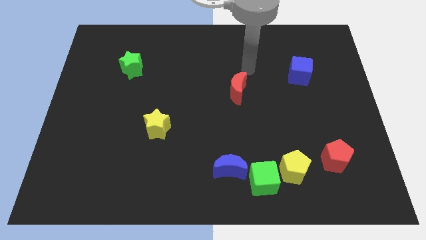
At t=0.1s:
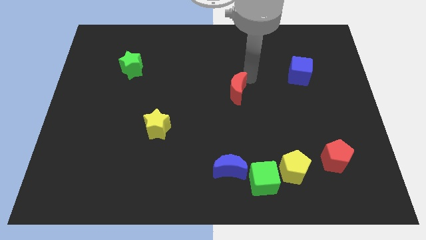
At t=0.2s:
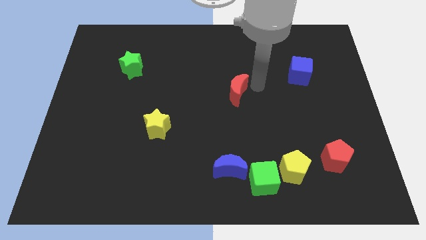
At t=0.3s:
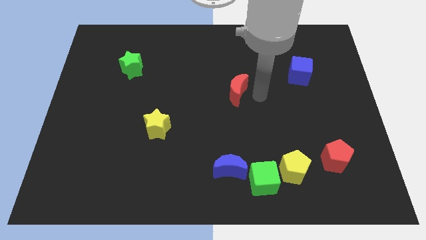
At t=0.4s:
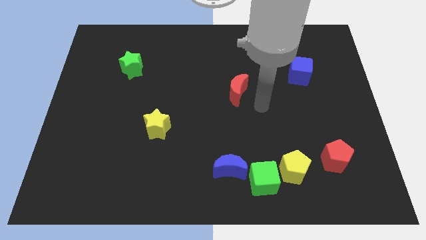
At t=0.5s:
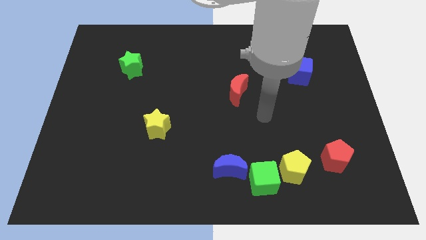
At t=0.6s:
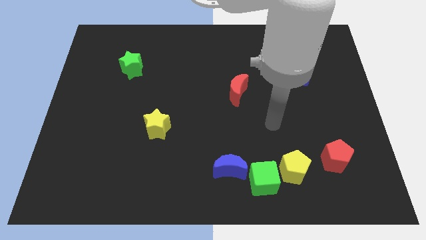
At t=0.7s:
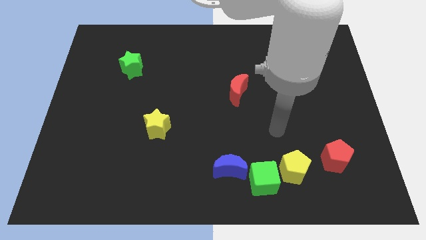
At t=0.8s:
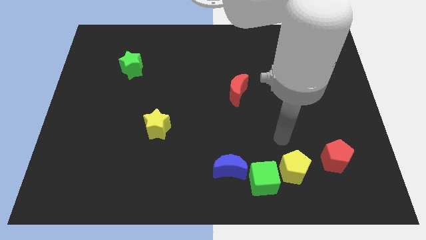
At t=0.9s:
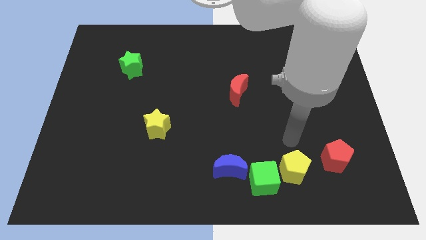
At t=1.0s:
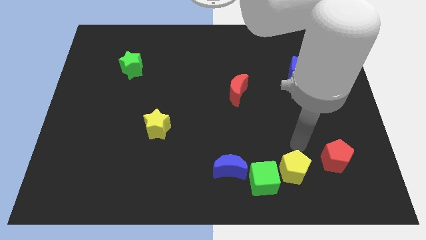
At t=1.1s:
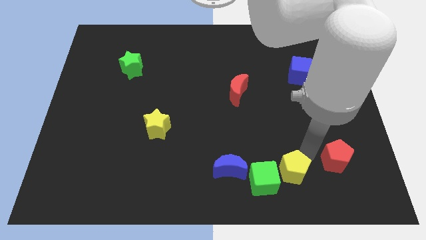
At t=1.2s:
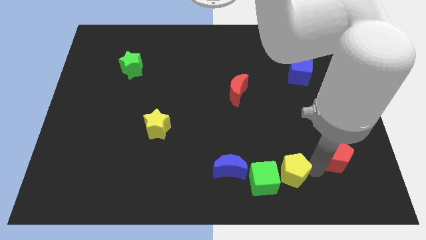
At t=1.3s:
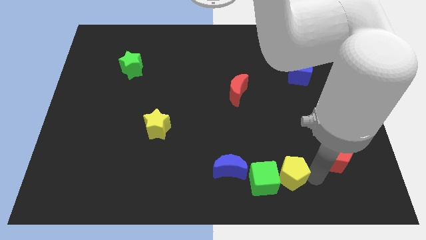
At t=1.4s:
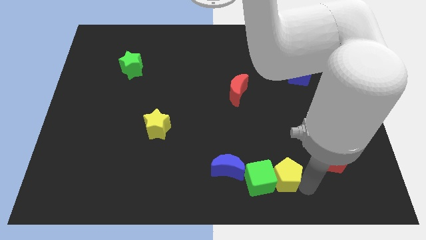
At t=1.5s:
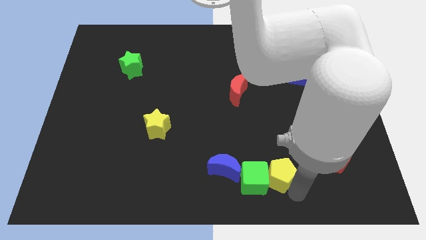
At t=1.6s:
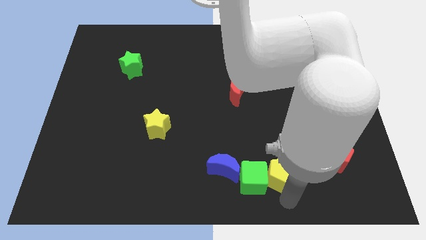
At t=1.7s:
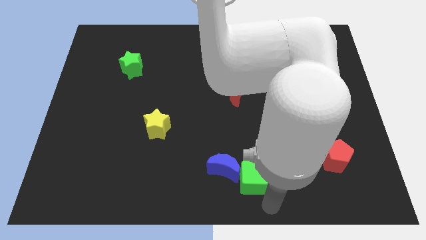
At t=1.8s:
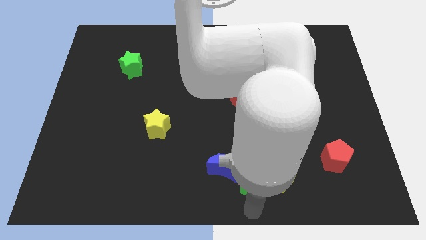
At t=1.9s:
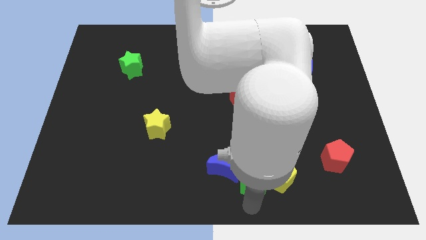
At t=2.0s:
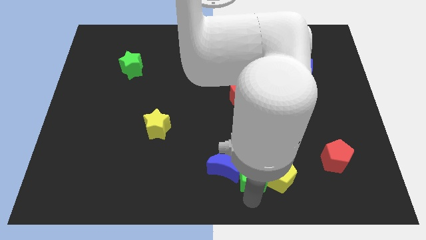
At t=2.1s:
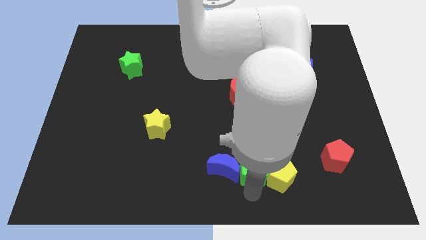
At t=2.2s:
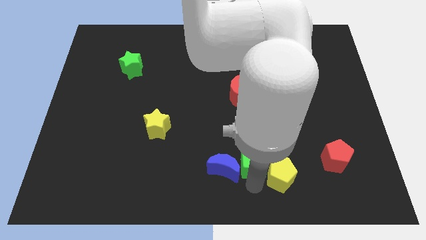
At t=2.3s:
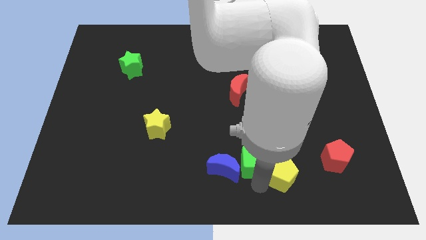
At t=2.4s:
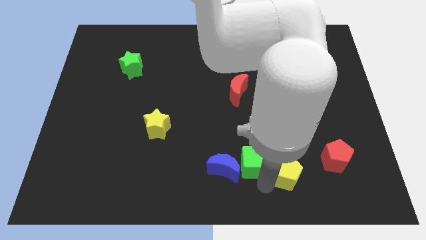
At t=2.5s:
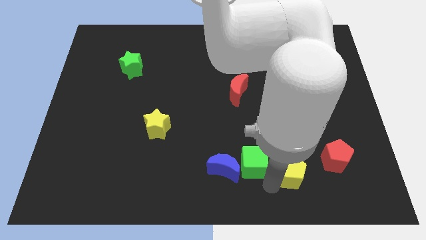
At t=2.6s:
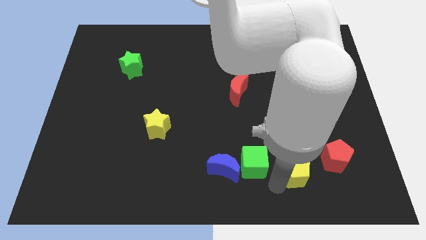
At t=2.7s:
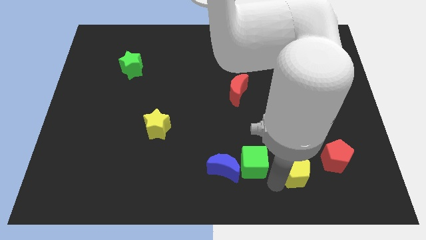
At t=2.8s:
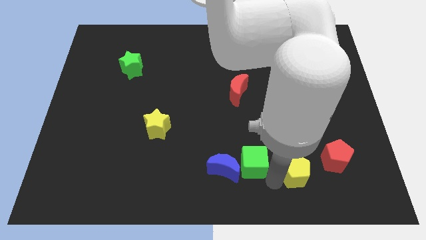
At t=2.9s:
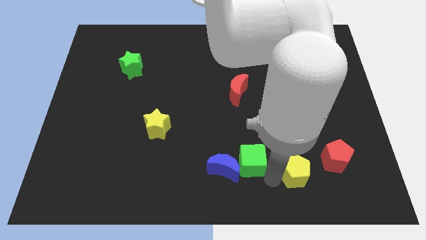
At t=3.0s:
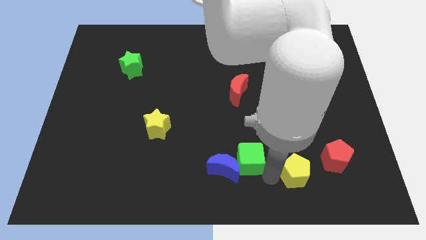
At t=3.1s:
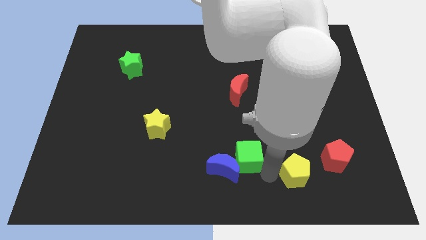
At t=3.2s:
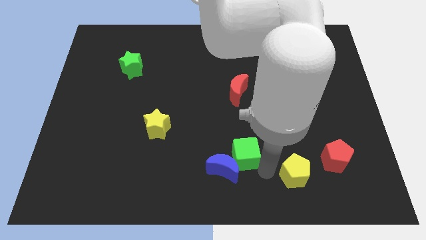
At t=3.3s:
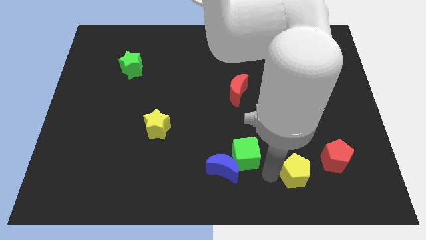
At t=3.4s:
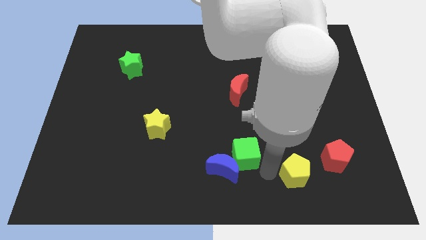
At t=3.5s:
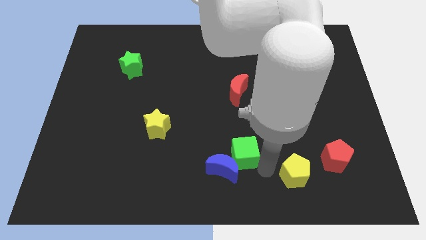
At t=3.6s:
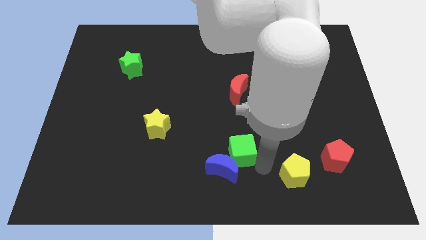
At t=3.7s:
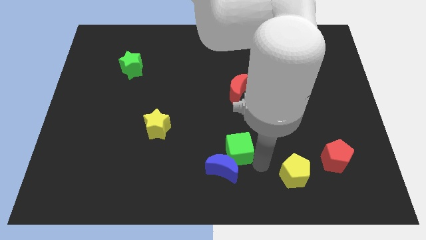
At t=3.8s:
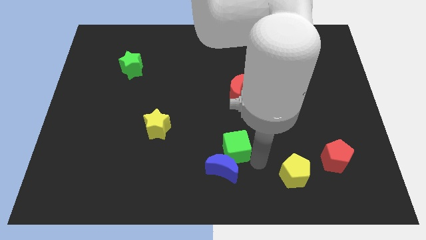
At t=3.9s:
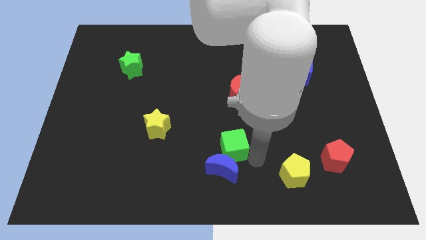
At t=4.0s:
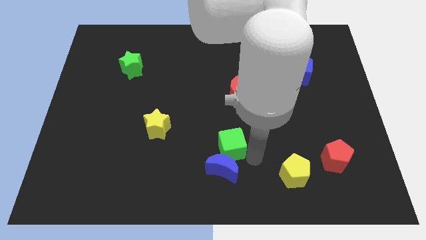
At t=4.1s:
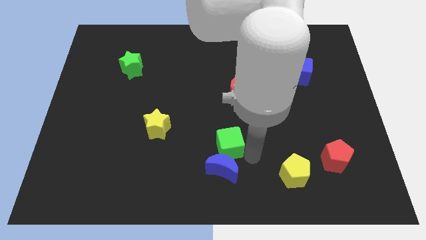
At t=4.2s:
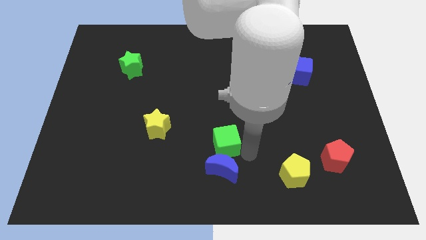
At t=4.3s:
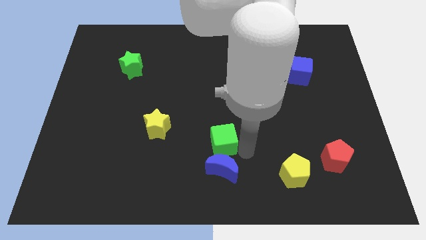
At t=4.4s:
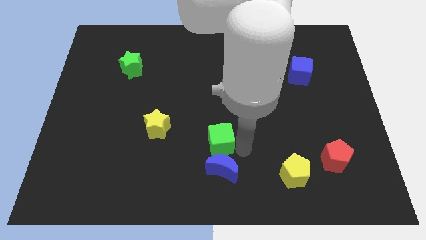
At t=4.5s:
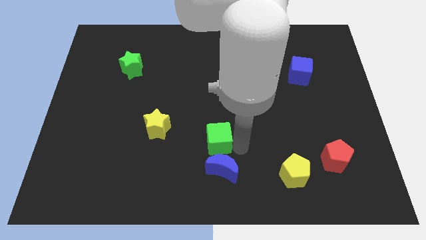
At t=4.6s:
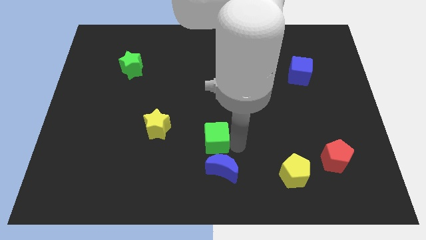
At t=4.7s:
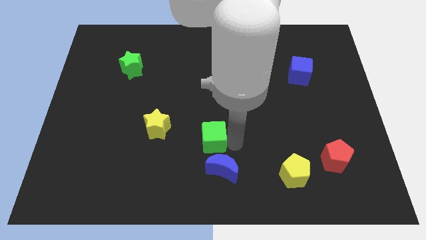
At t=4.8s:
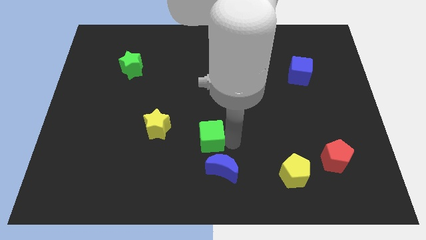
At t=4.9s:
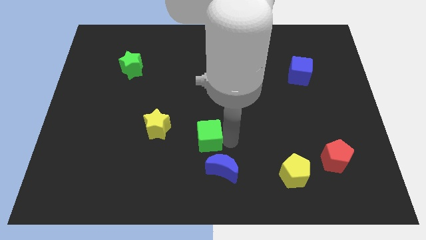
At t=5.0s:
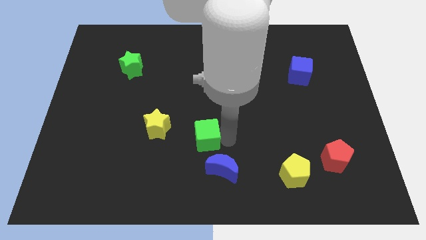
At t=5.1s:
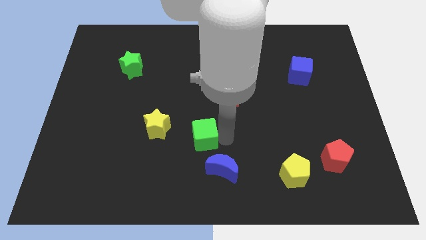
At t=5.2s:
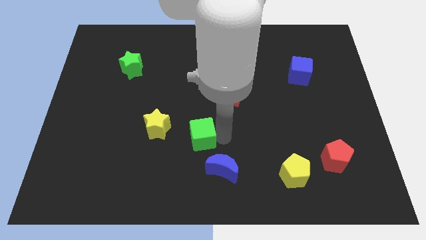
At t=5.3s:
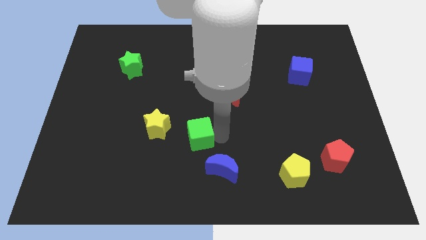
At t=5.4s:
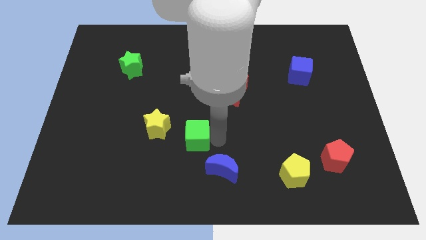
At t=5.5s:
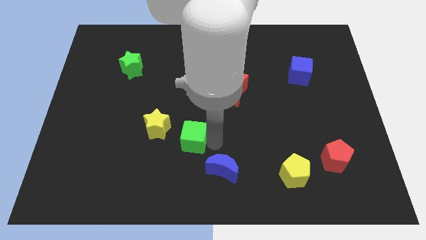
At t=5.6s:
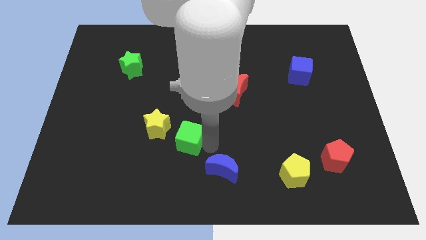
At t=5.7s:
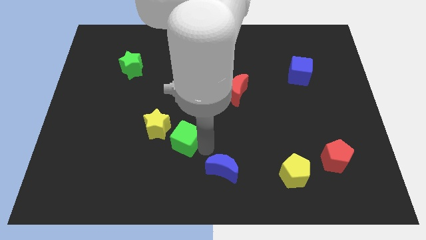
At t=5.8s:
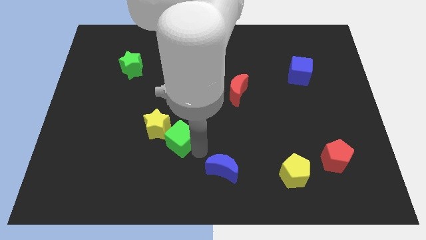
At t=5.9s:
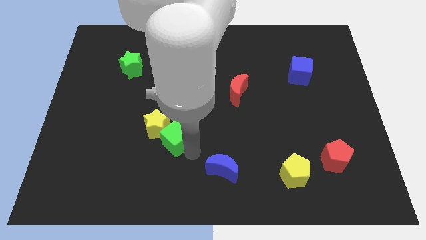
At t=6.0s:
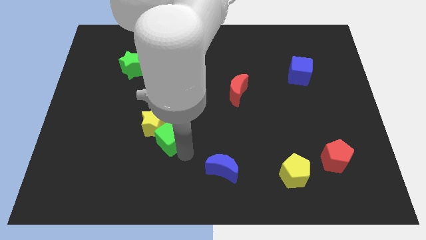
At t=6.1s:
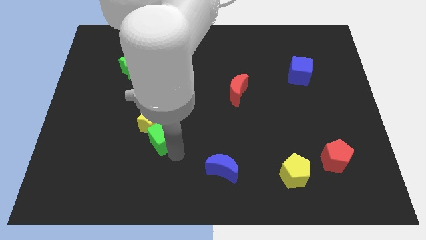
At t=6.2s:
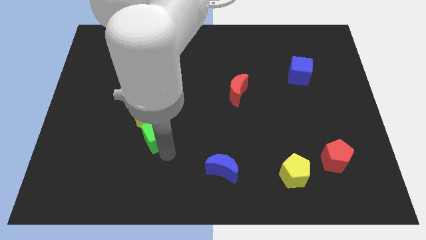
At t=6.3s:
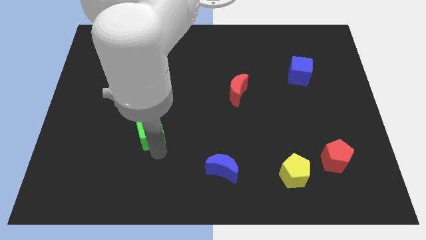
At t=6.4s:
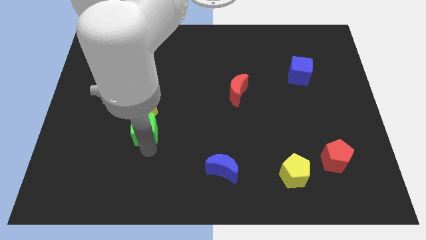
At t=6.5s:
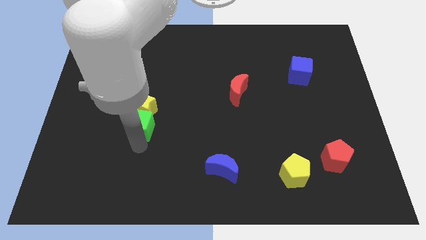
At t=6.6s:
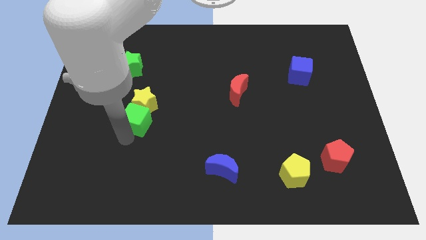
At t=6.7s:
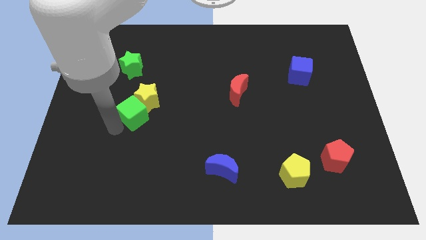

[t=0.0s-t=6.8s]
slide the green cube to the bottom of the green star
